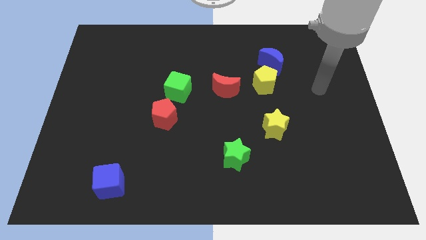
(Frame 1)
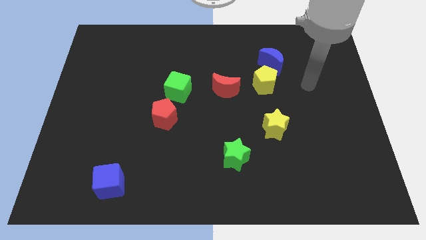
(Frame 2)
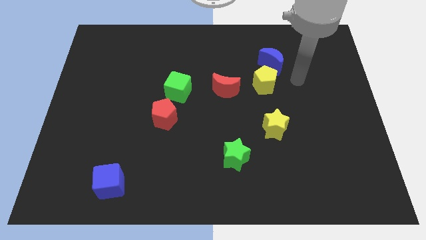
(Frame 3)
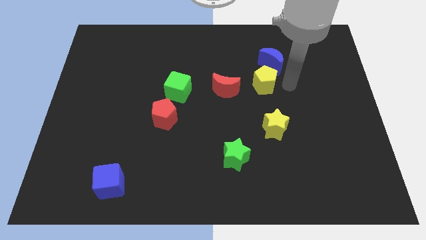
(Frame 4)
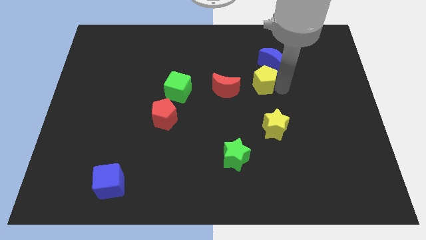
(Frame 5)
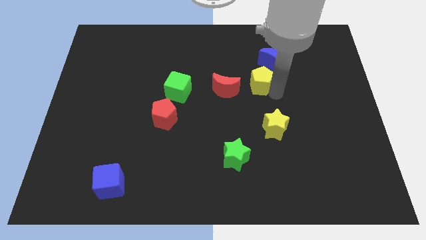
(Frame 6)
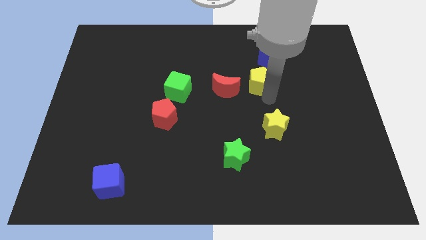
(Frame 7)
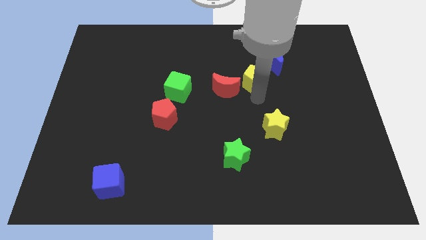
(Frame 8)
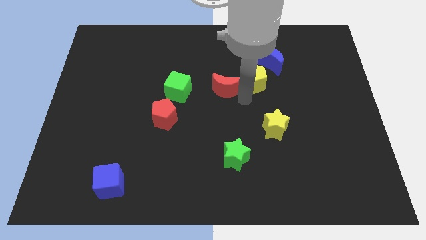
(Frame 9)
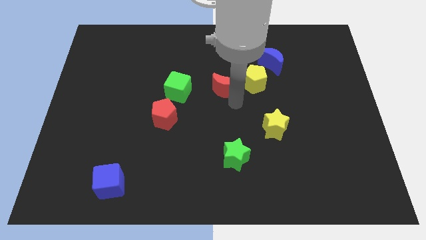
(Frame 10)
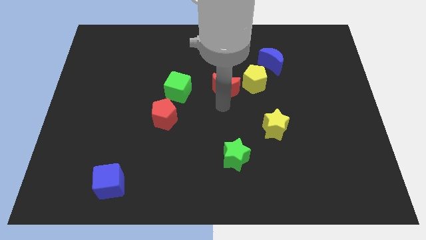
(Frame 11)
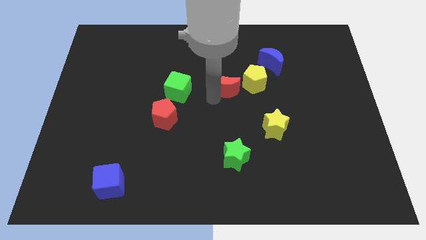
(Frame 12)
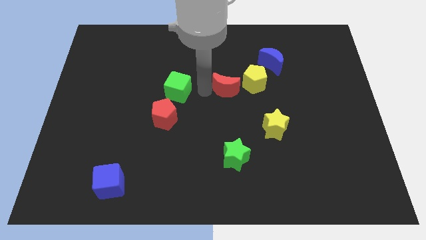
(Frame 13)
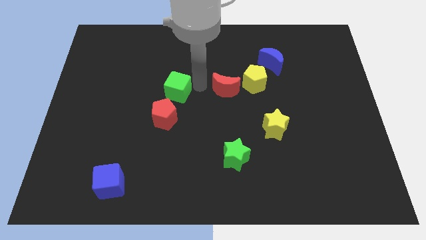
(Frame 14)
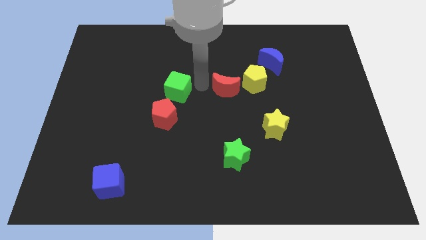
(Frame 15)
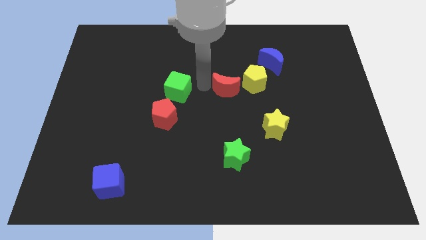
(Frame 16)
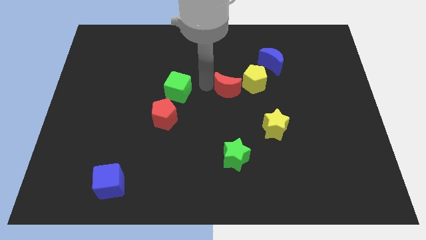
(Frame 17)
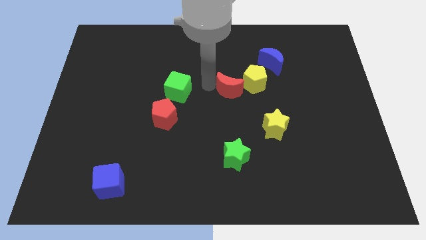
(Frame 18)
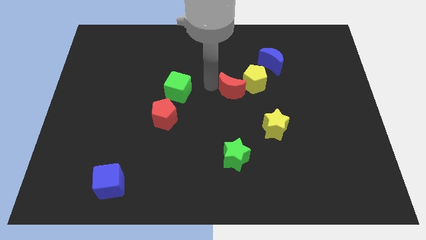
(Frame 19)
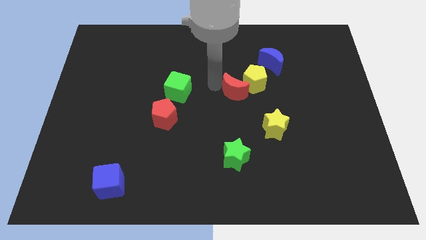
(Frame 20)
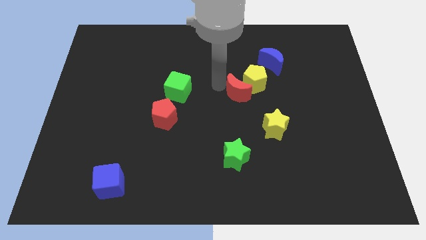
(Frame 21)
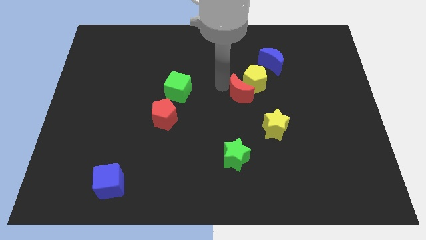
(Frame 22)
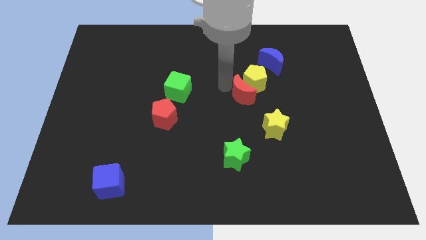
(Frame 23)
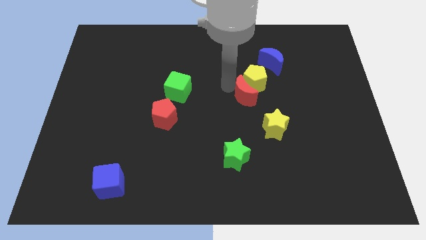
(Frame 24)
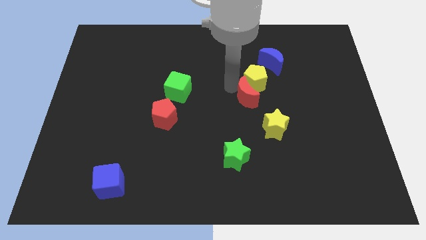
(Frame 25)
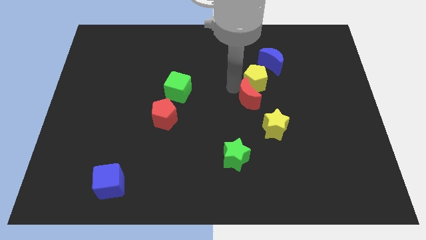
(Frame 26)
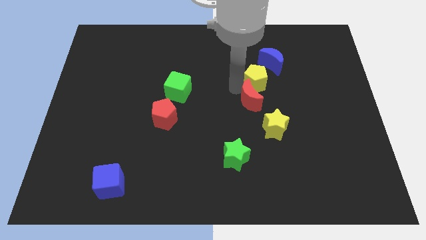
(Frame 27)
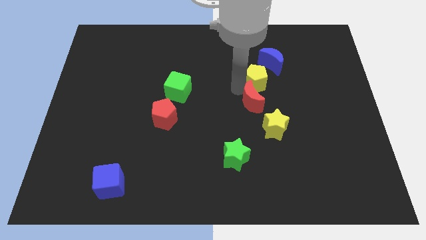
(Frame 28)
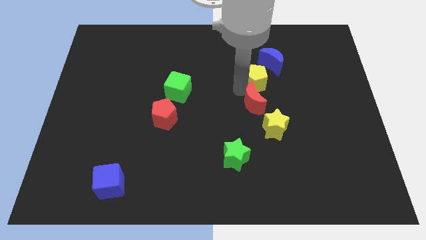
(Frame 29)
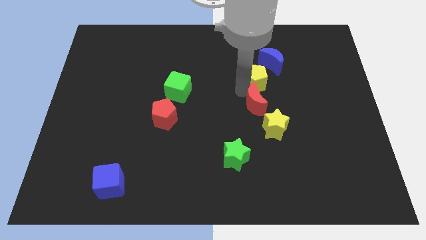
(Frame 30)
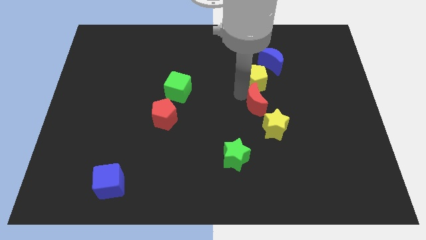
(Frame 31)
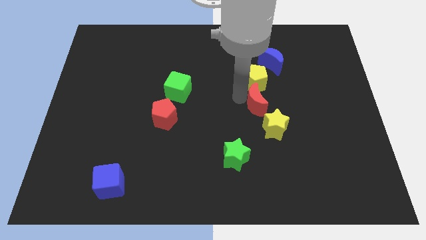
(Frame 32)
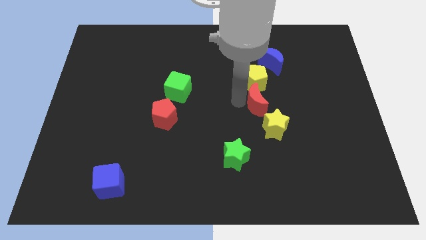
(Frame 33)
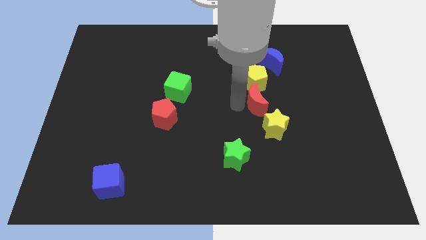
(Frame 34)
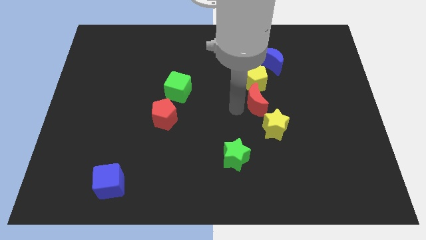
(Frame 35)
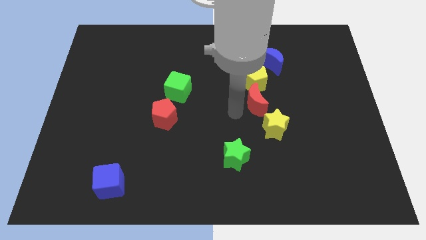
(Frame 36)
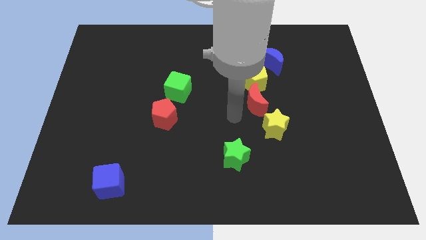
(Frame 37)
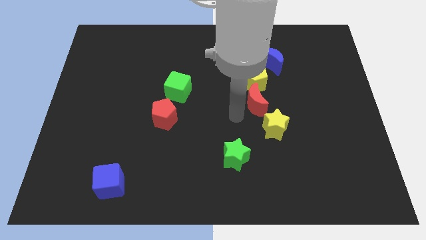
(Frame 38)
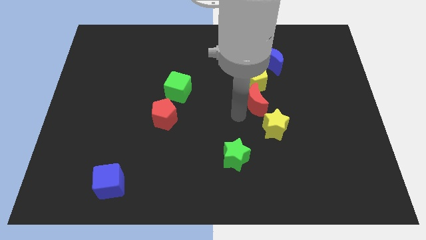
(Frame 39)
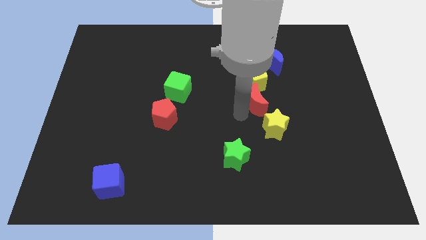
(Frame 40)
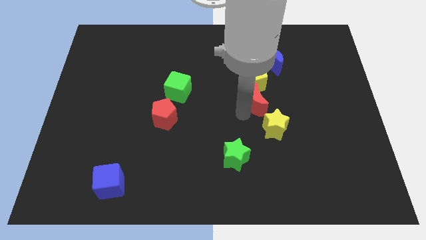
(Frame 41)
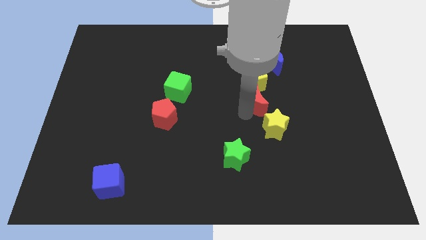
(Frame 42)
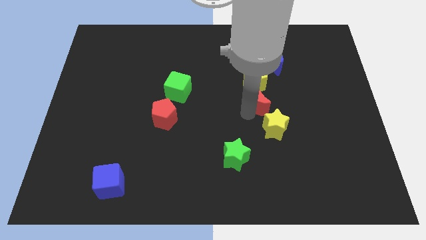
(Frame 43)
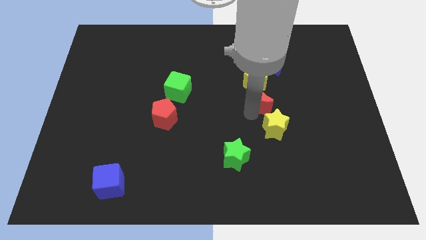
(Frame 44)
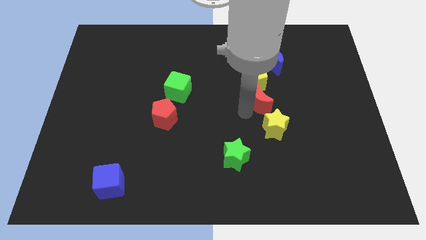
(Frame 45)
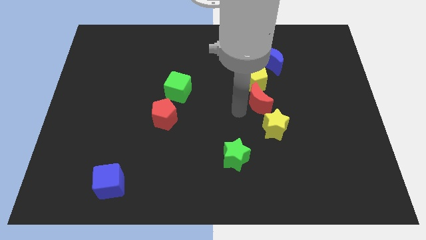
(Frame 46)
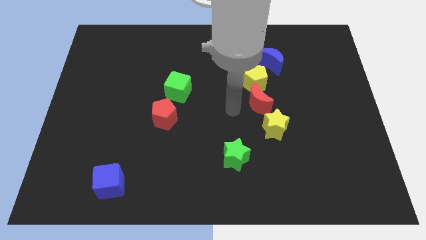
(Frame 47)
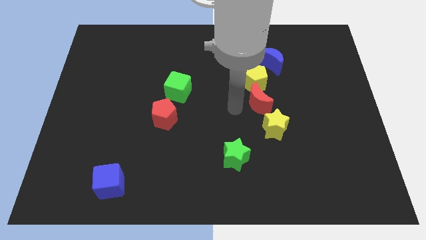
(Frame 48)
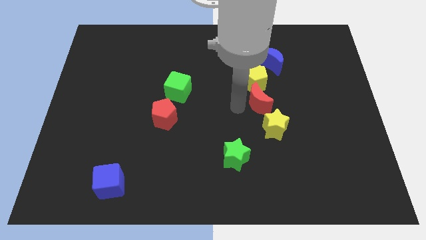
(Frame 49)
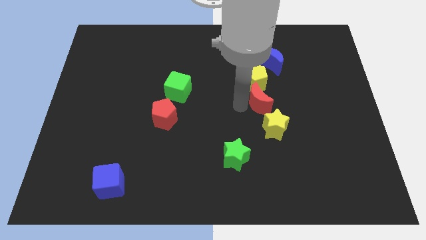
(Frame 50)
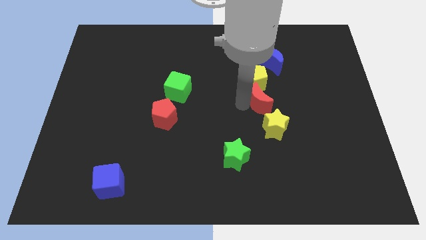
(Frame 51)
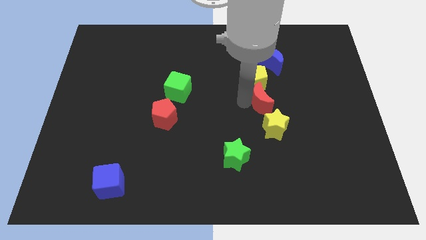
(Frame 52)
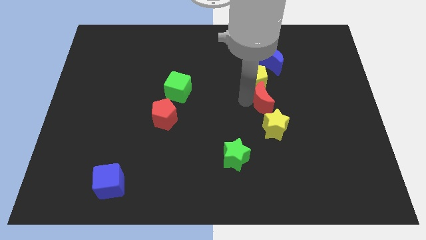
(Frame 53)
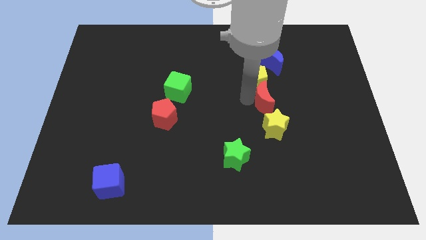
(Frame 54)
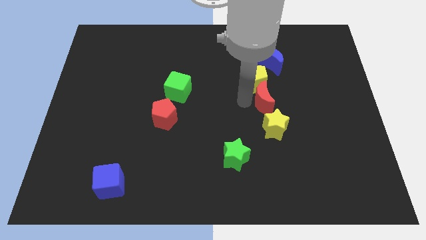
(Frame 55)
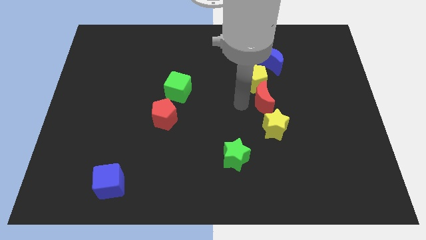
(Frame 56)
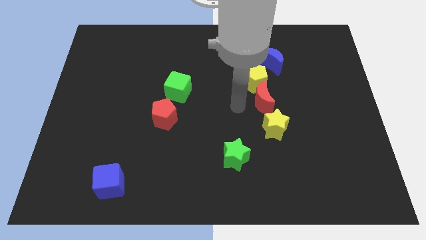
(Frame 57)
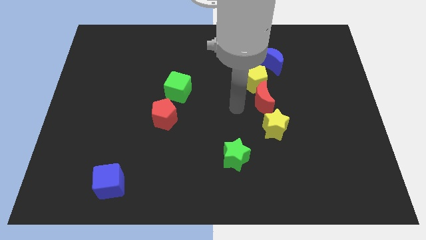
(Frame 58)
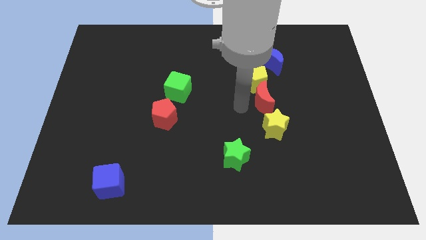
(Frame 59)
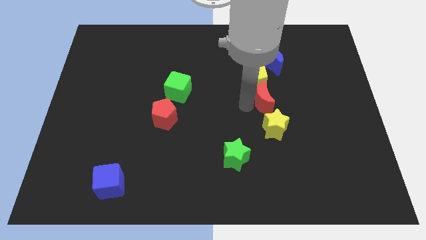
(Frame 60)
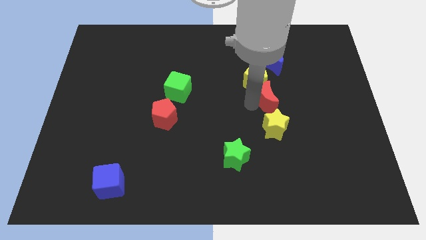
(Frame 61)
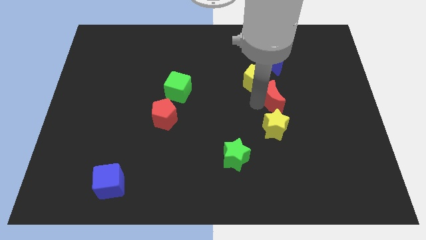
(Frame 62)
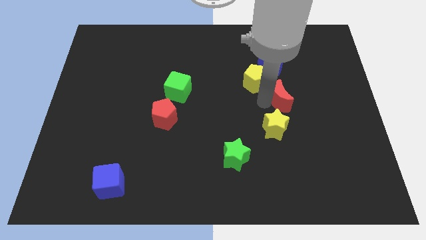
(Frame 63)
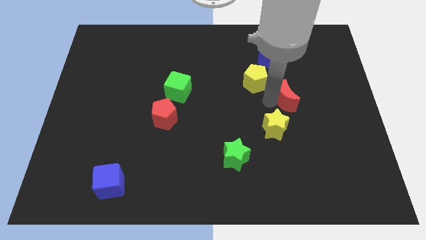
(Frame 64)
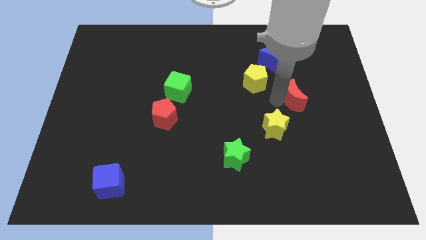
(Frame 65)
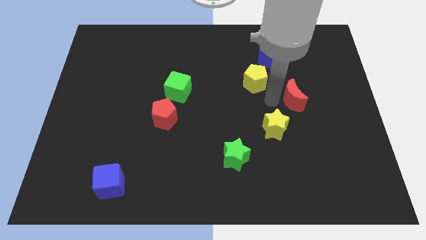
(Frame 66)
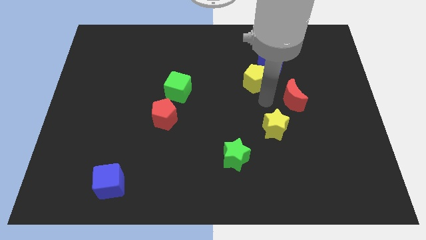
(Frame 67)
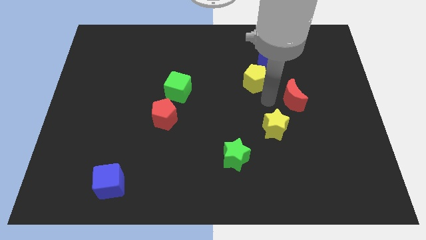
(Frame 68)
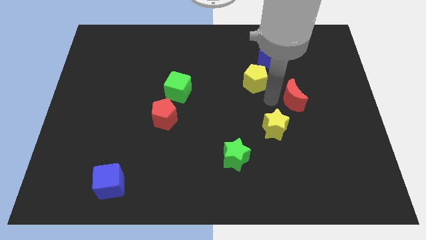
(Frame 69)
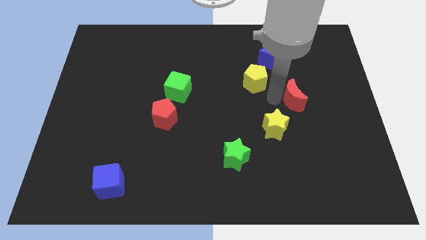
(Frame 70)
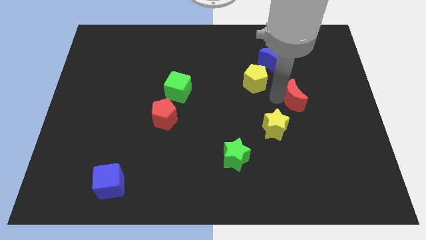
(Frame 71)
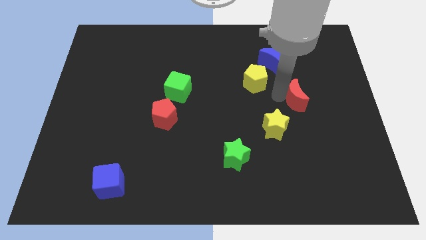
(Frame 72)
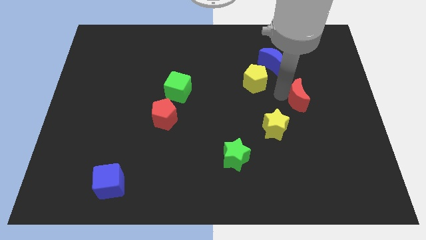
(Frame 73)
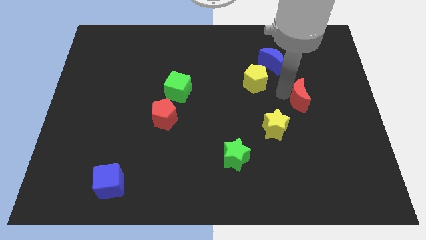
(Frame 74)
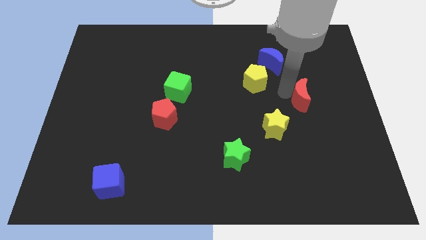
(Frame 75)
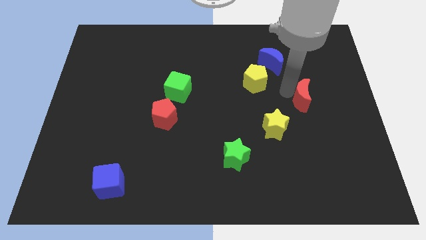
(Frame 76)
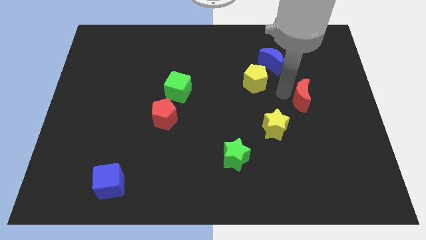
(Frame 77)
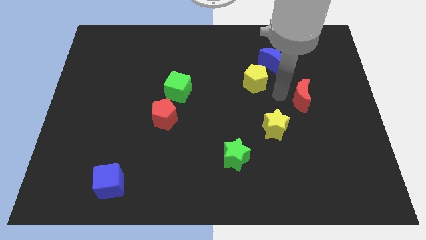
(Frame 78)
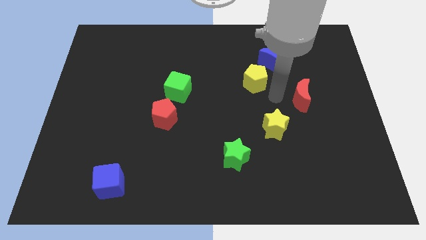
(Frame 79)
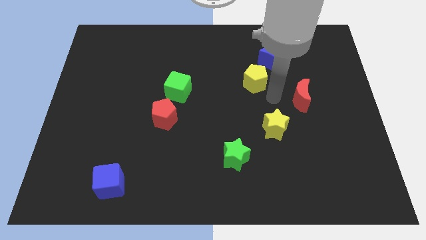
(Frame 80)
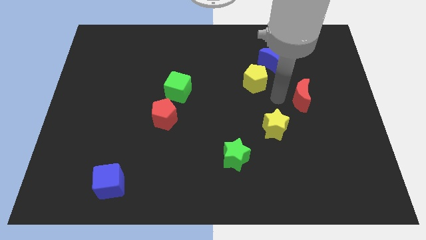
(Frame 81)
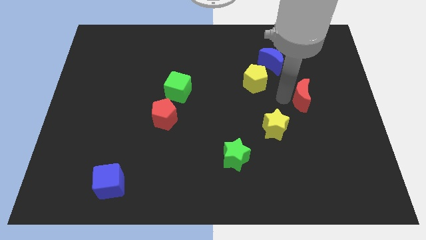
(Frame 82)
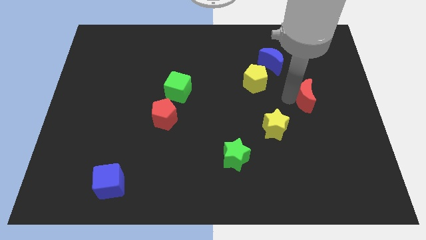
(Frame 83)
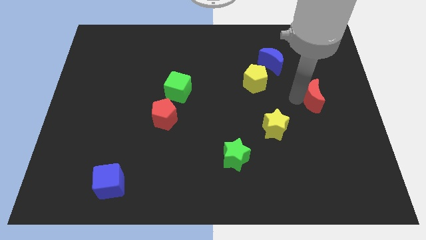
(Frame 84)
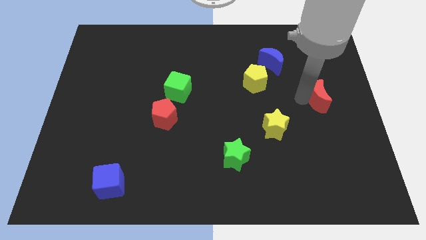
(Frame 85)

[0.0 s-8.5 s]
slide the red moon to the right side of the board
